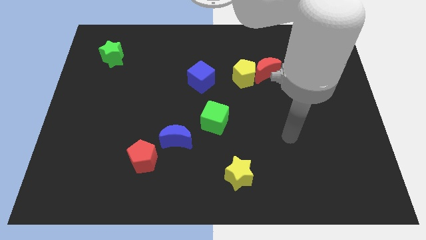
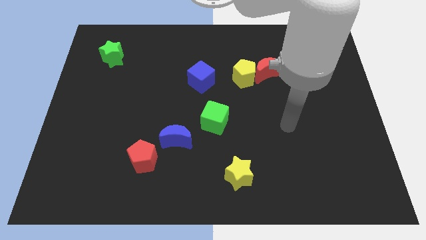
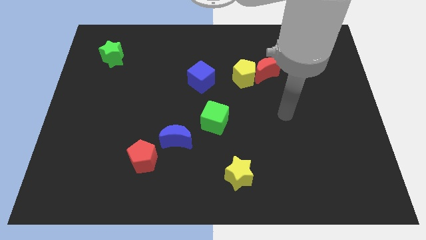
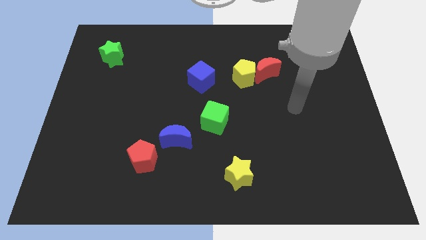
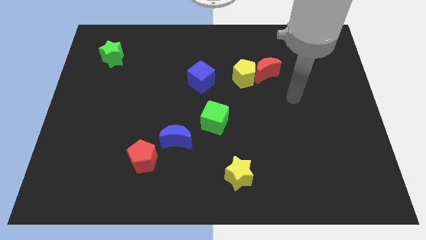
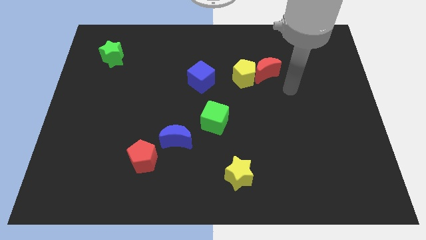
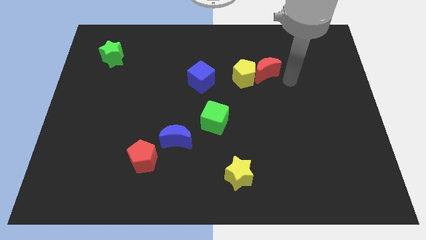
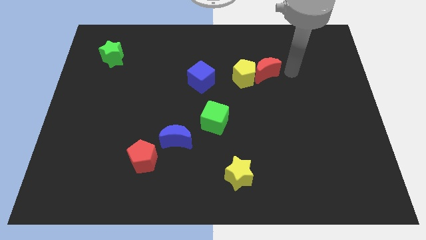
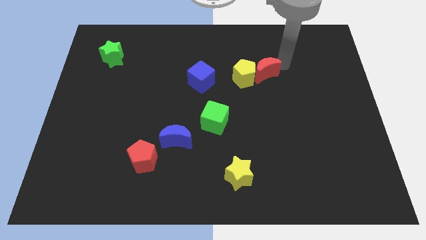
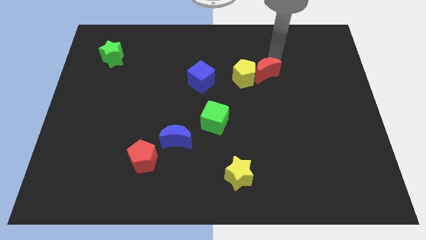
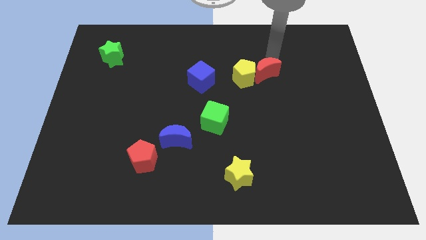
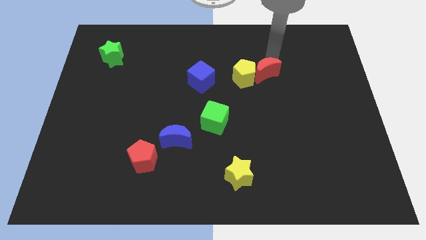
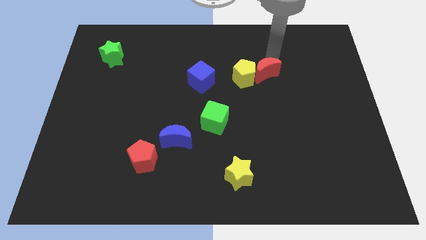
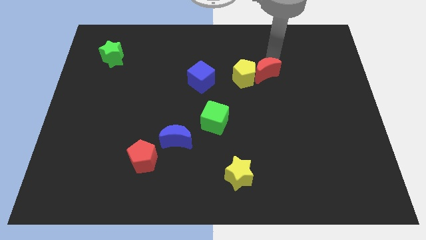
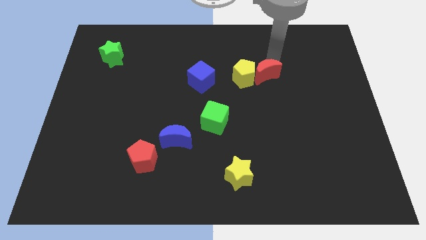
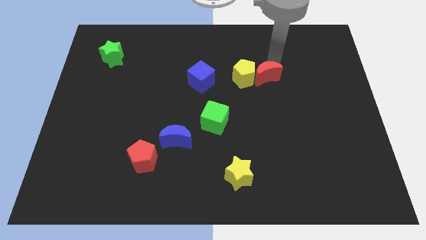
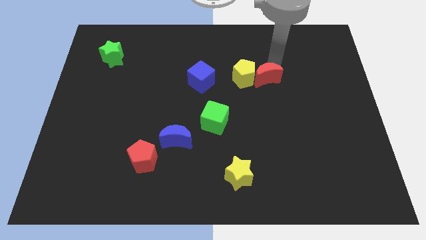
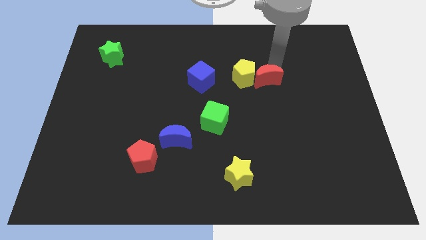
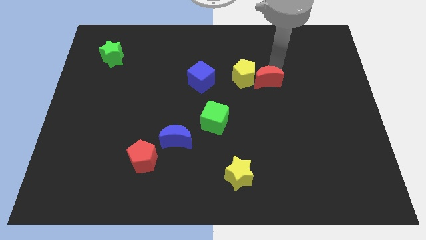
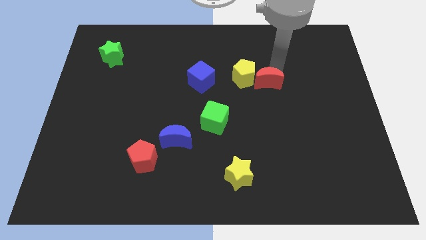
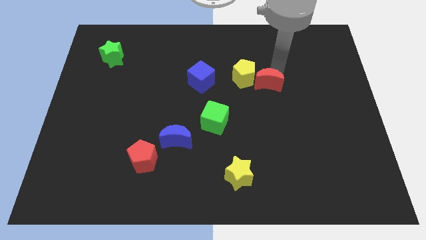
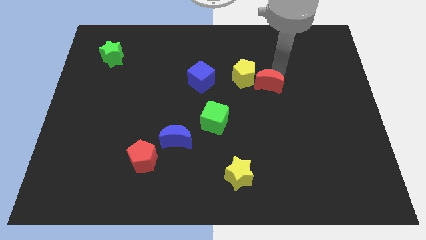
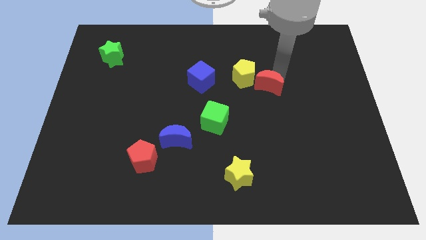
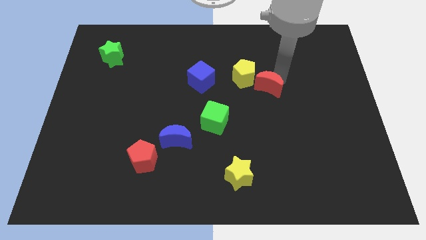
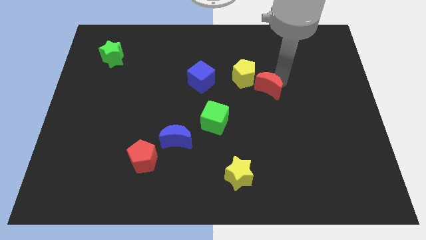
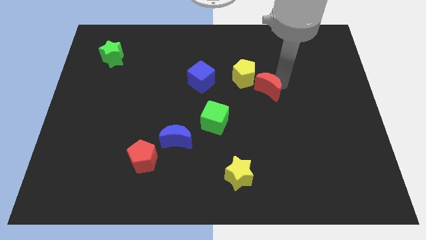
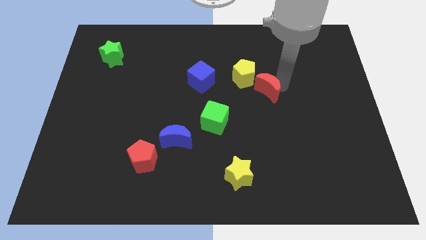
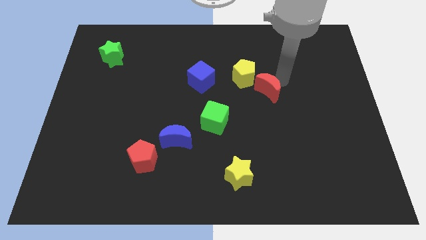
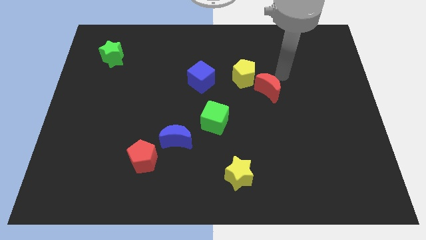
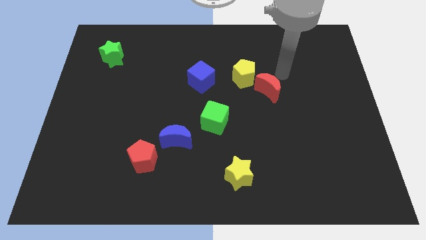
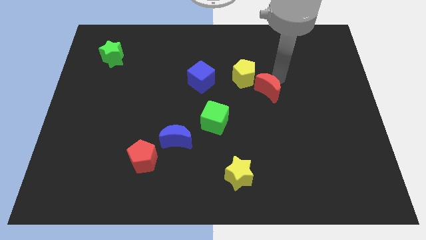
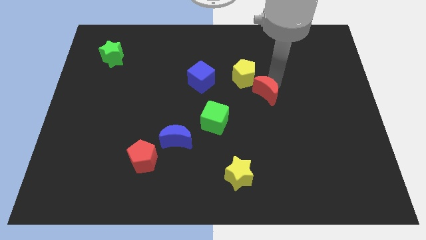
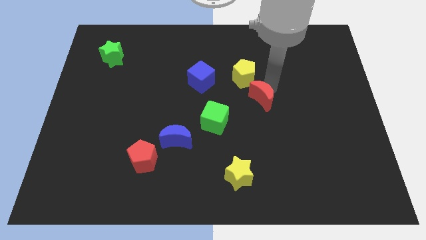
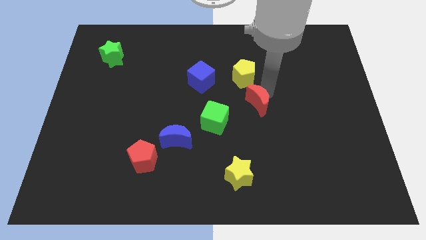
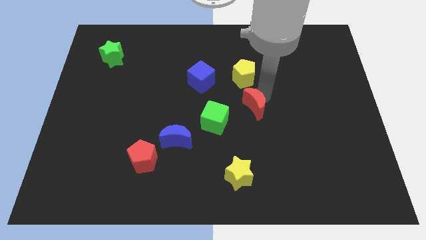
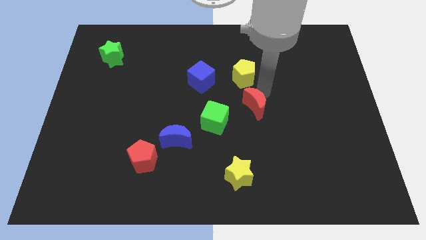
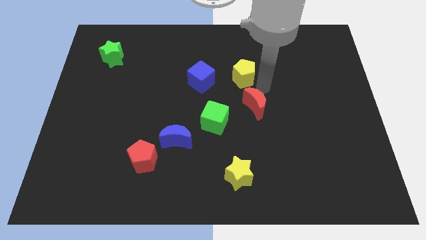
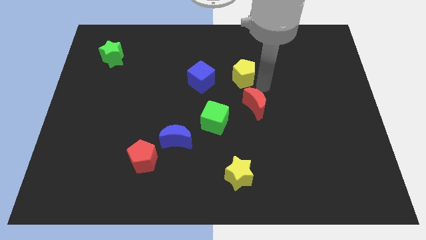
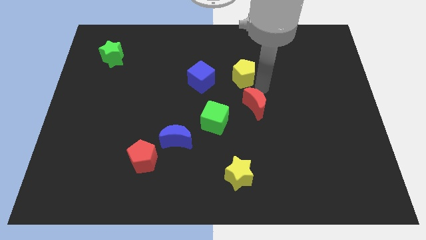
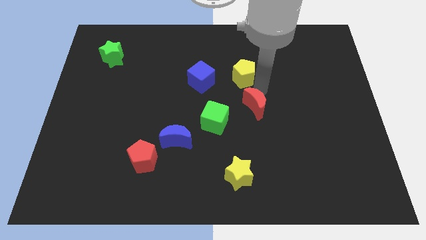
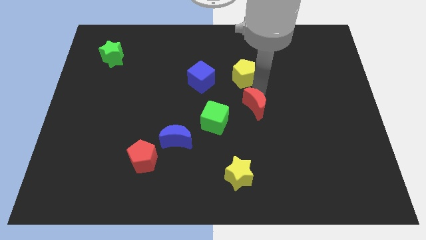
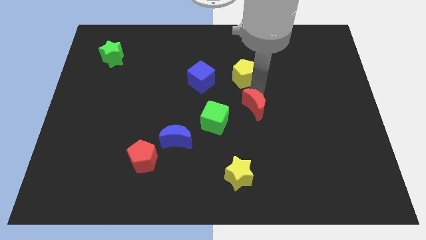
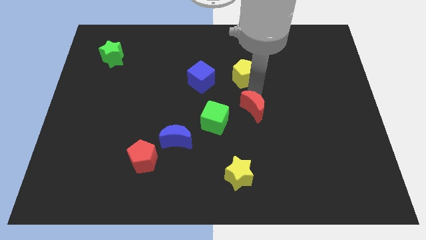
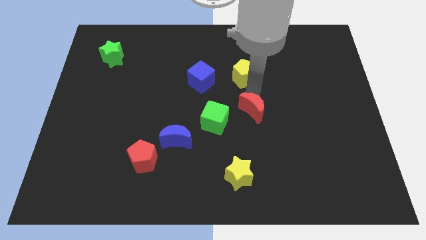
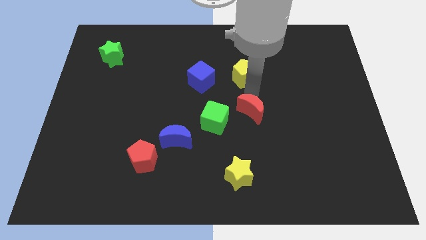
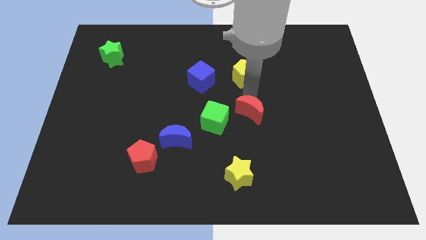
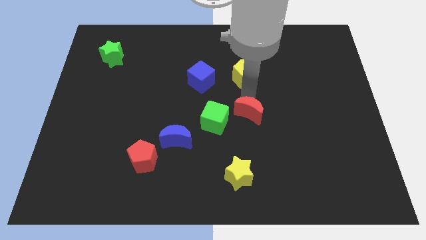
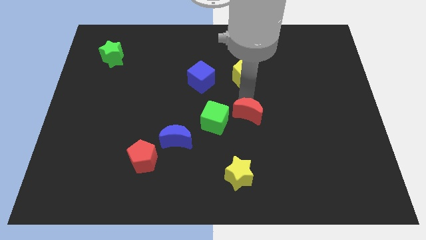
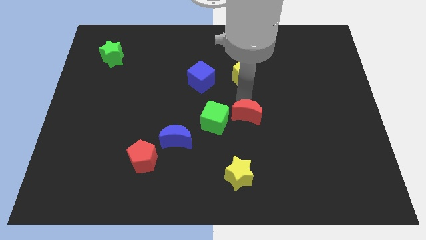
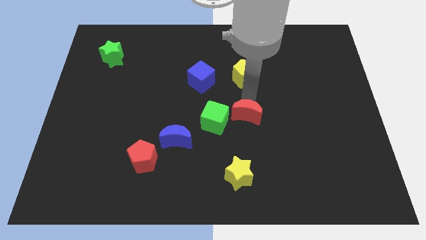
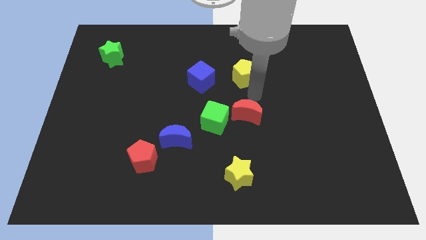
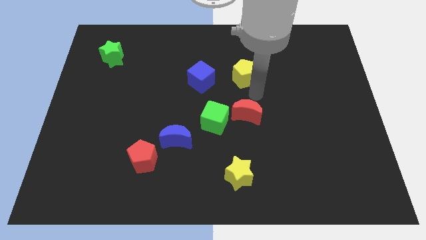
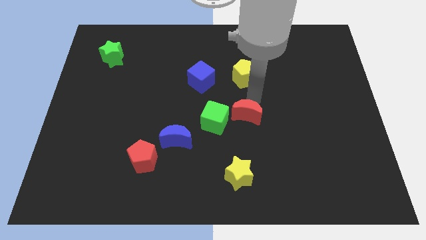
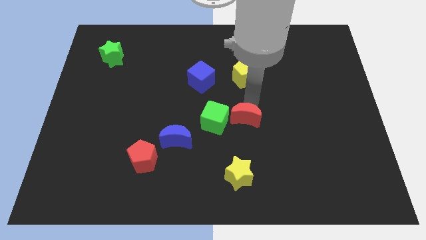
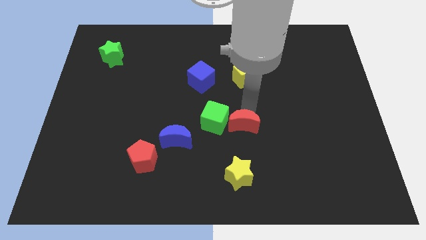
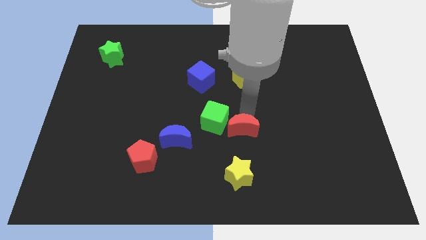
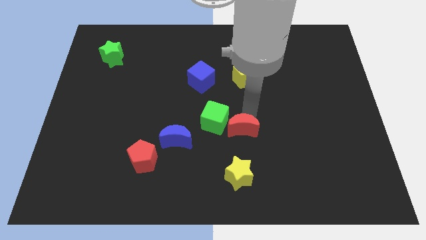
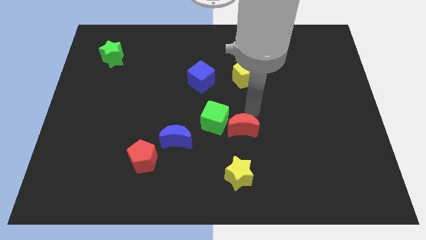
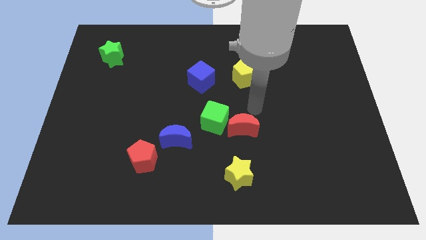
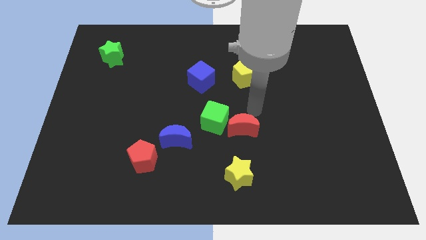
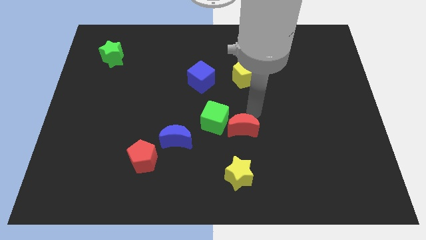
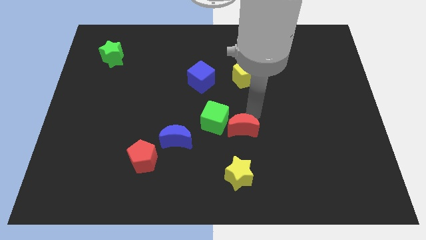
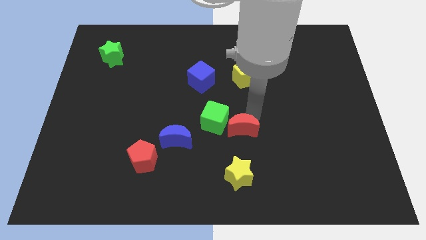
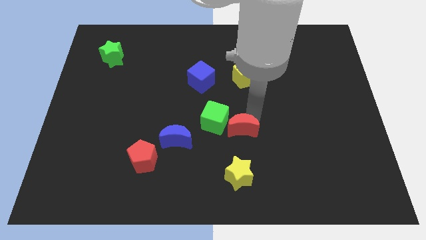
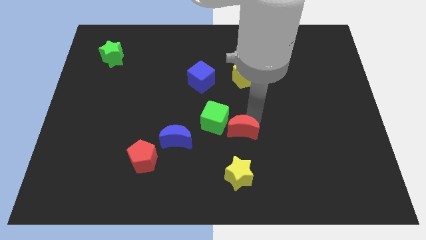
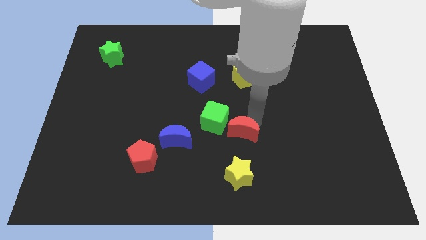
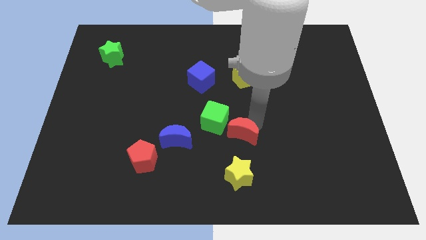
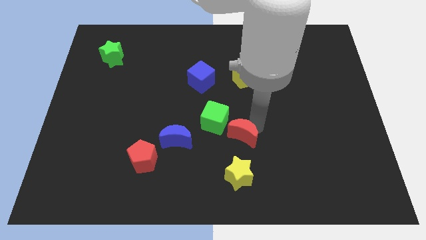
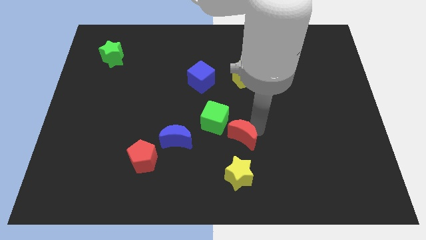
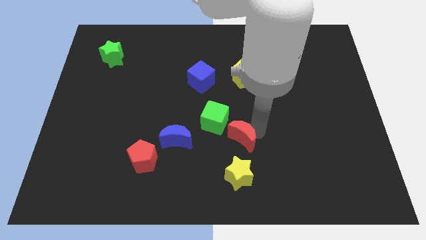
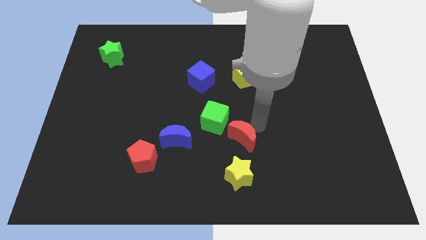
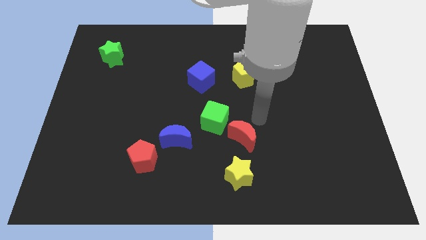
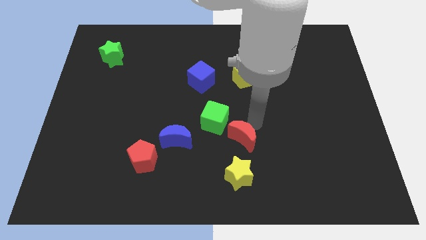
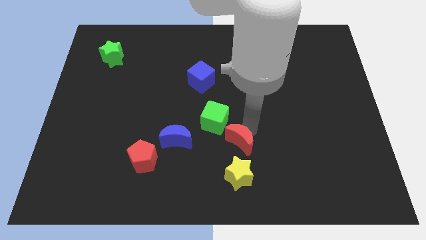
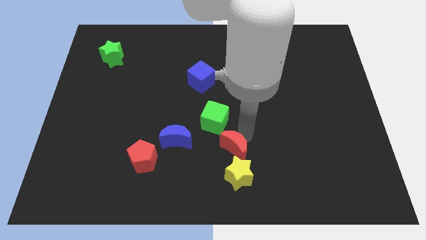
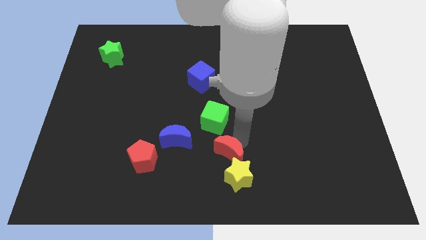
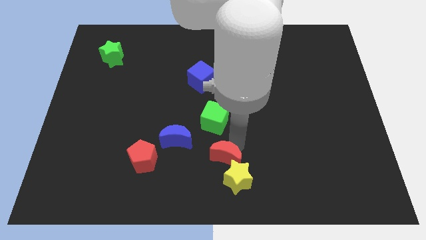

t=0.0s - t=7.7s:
push the red moon to the bottom side
